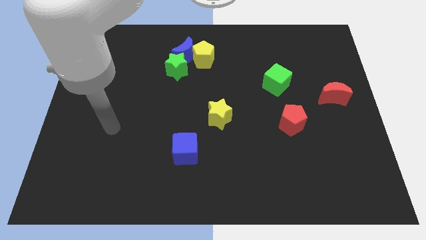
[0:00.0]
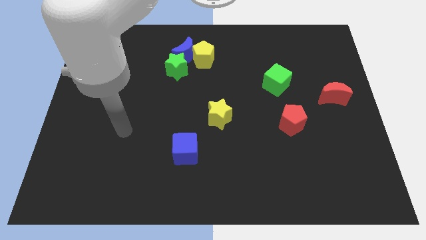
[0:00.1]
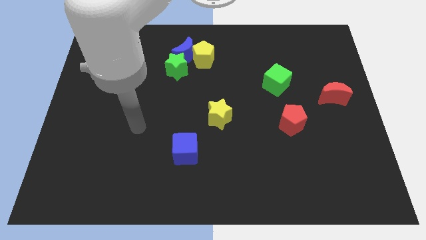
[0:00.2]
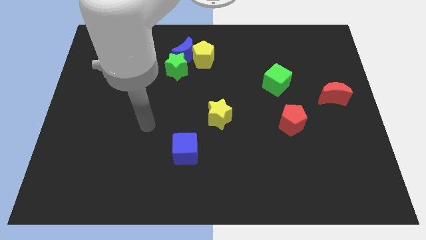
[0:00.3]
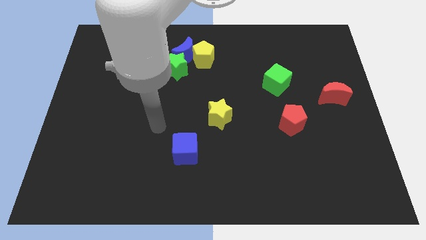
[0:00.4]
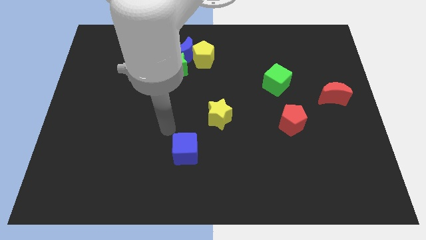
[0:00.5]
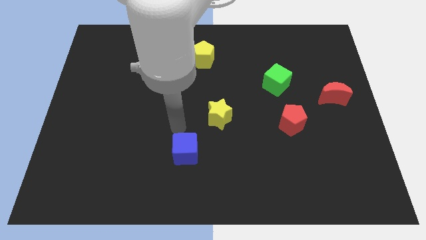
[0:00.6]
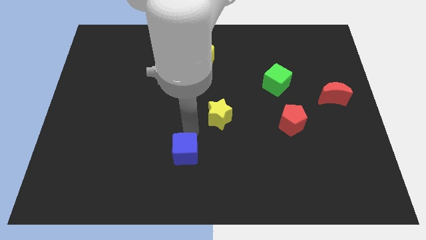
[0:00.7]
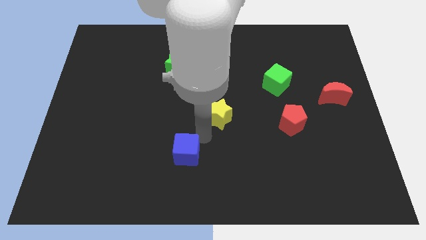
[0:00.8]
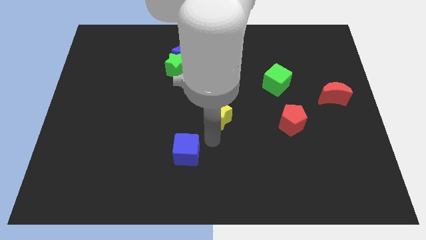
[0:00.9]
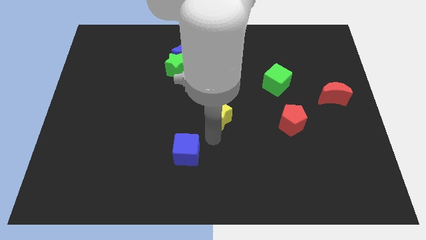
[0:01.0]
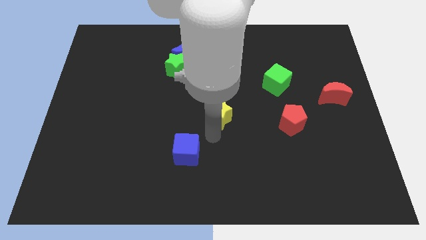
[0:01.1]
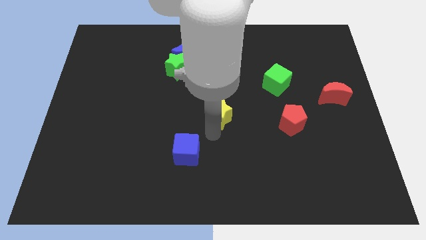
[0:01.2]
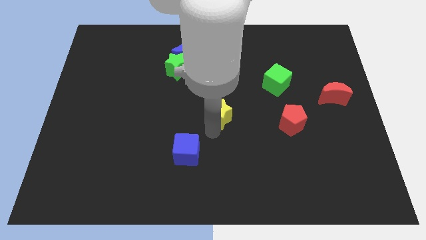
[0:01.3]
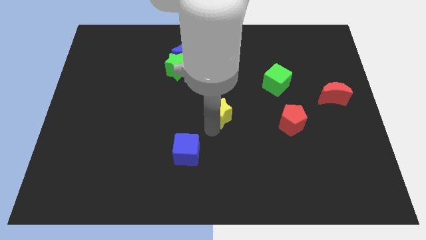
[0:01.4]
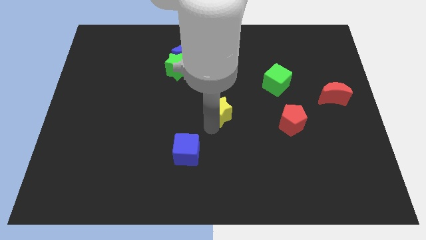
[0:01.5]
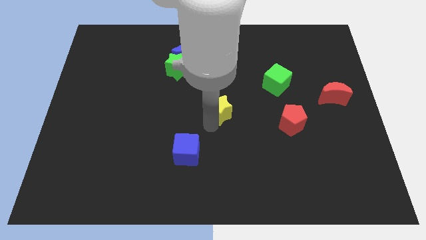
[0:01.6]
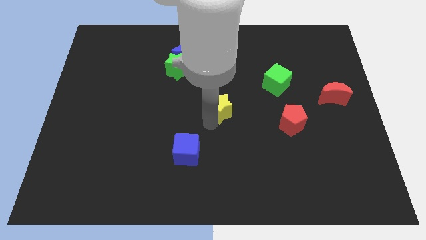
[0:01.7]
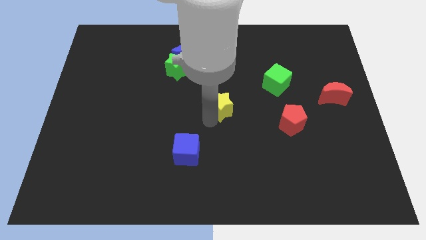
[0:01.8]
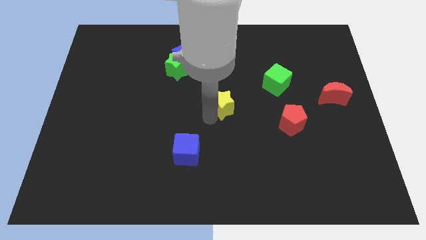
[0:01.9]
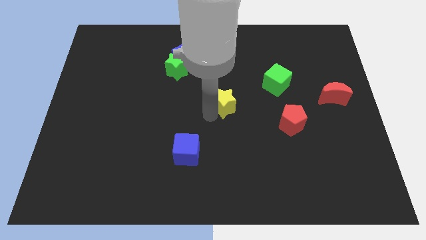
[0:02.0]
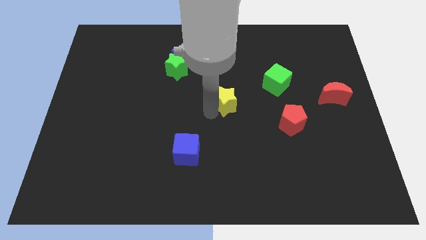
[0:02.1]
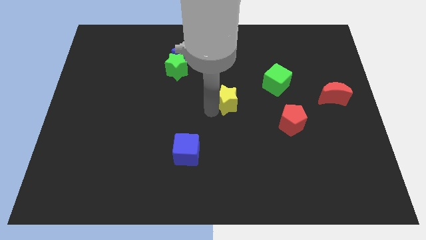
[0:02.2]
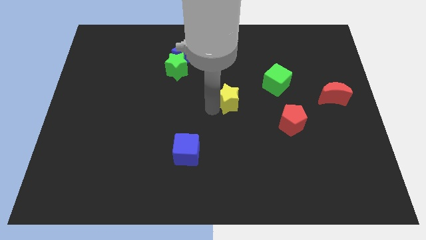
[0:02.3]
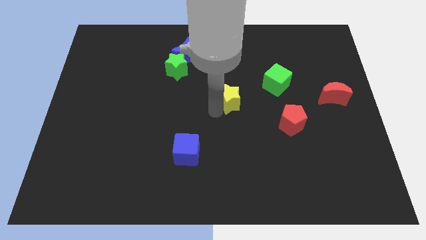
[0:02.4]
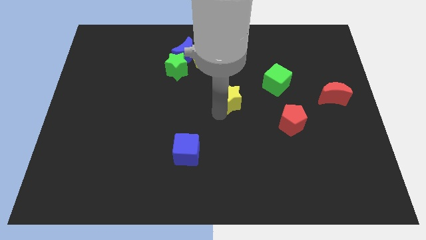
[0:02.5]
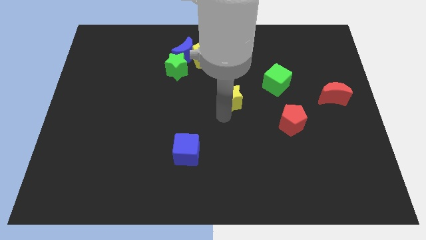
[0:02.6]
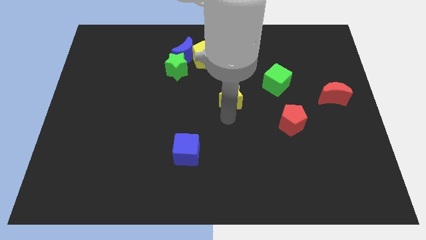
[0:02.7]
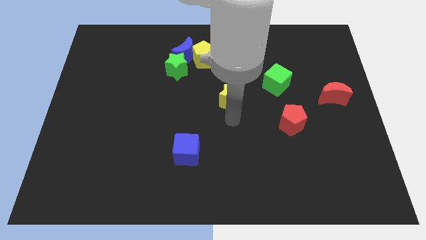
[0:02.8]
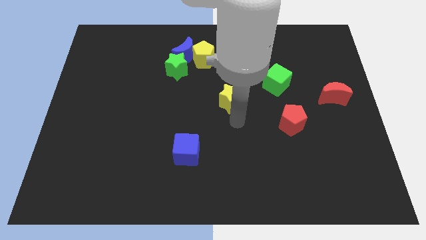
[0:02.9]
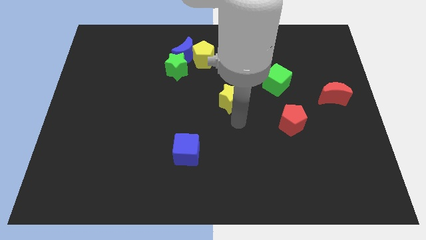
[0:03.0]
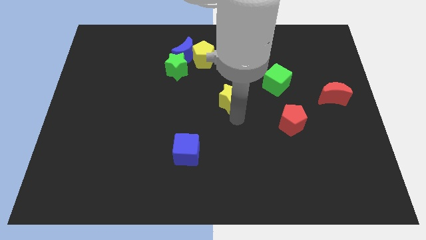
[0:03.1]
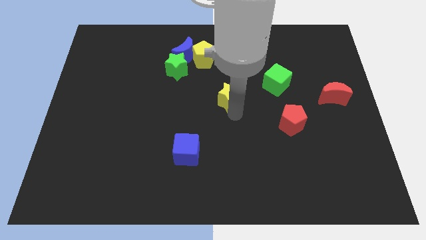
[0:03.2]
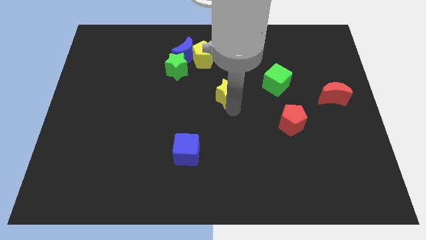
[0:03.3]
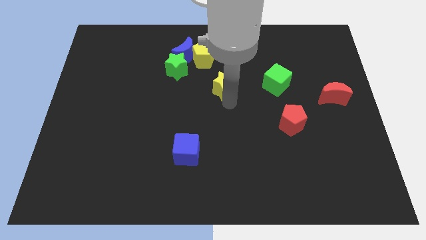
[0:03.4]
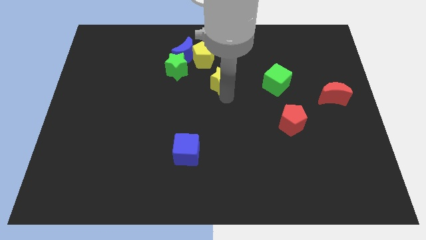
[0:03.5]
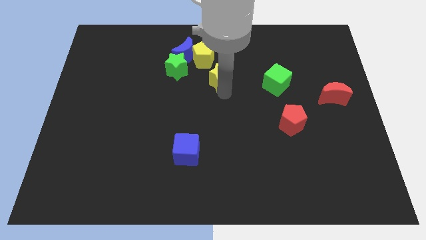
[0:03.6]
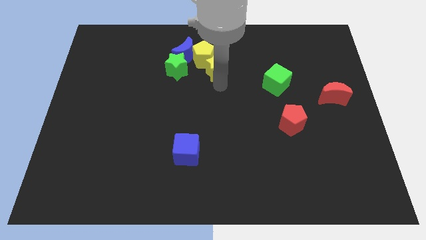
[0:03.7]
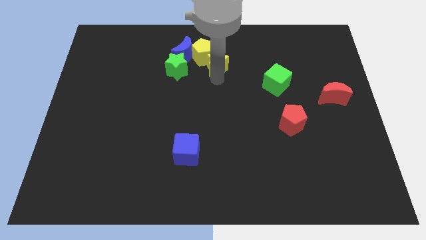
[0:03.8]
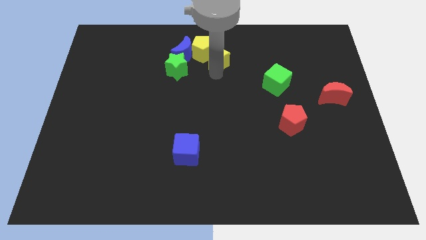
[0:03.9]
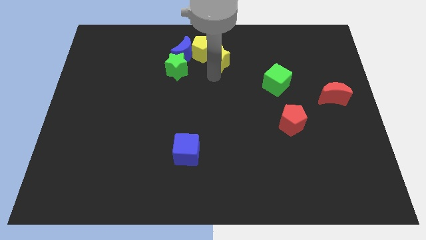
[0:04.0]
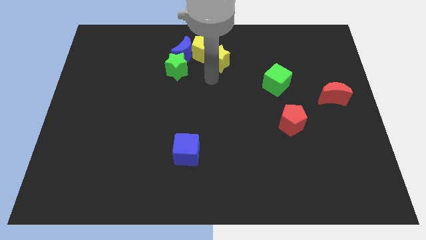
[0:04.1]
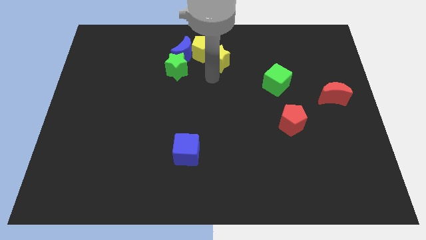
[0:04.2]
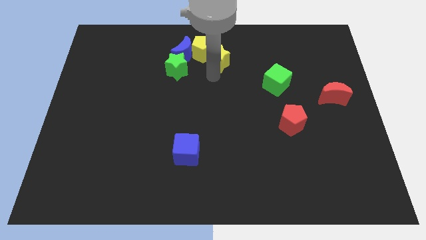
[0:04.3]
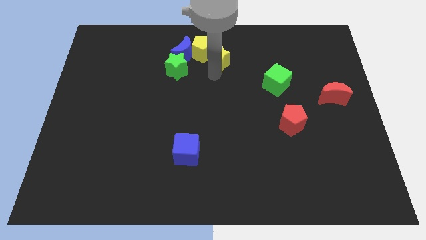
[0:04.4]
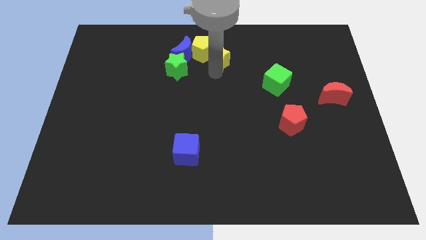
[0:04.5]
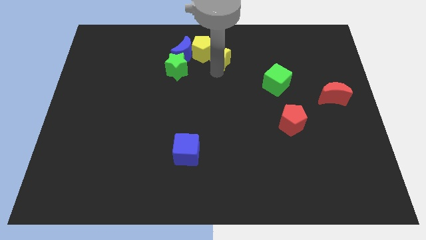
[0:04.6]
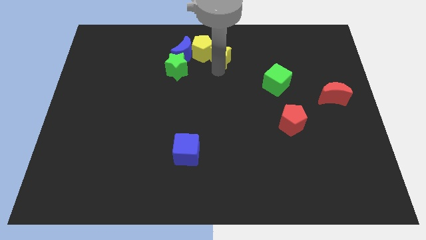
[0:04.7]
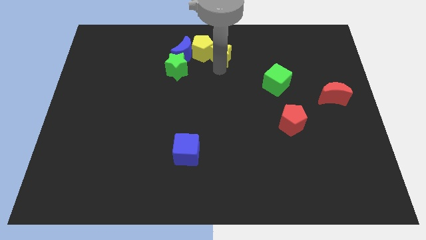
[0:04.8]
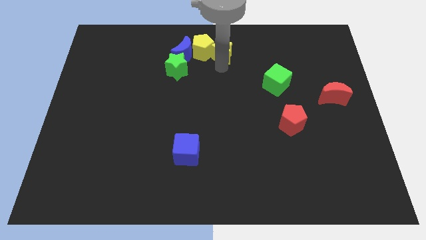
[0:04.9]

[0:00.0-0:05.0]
put the yellow star to the towards your base
